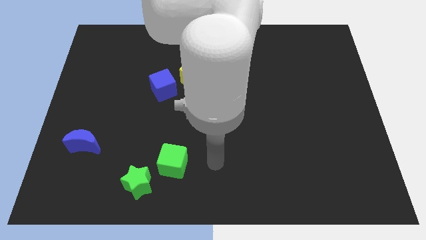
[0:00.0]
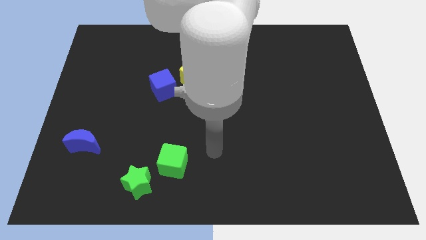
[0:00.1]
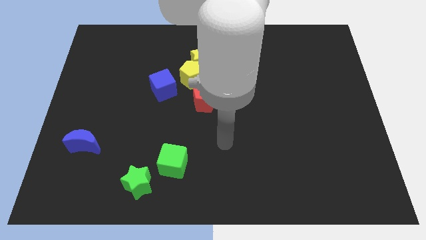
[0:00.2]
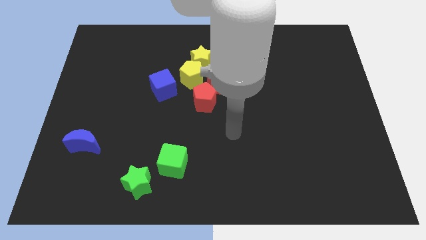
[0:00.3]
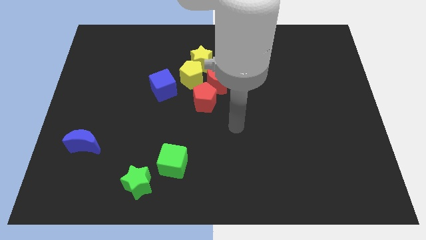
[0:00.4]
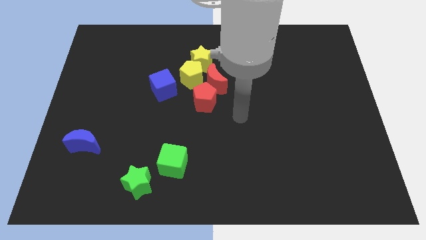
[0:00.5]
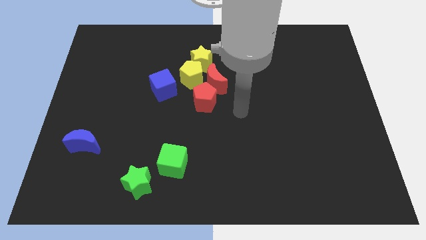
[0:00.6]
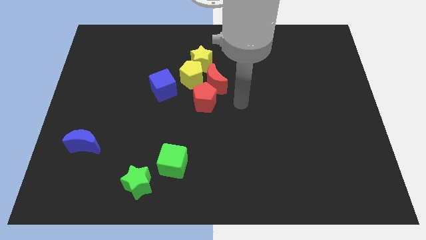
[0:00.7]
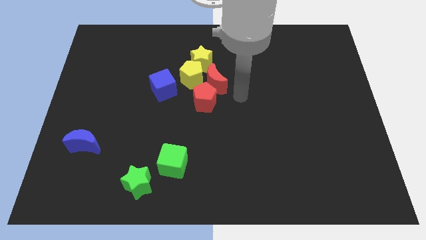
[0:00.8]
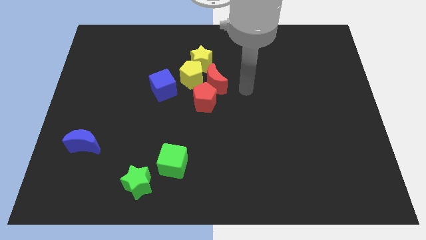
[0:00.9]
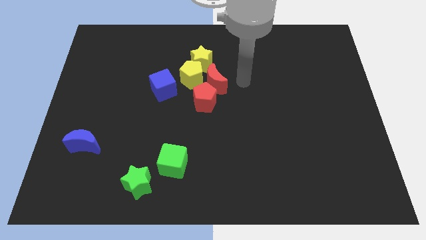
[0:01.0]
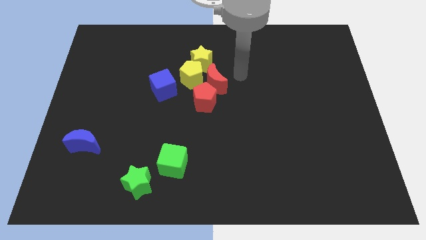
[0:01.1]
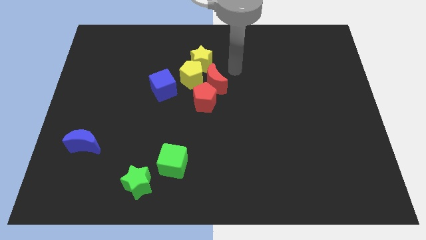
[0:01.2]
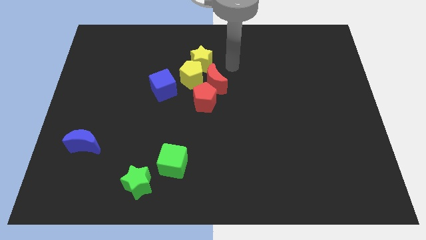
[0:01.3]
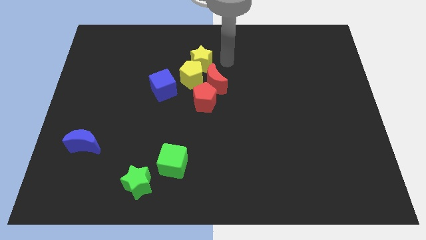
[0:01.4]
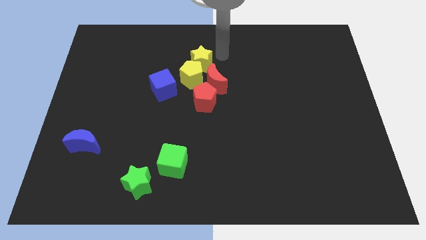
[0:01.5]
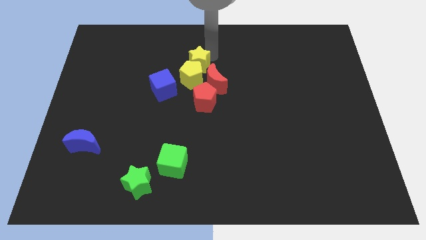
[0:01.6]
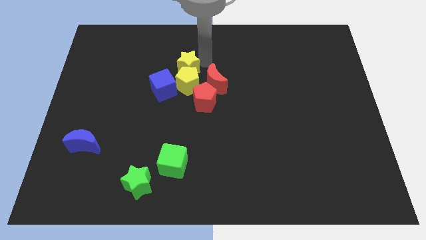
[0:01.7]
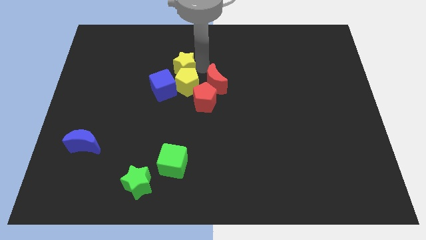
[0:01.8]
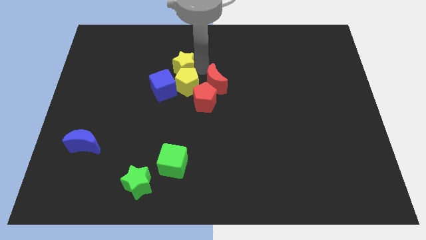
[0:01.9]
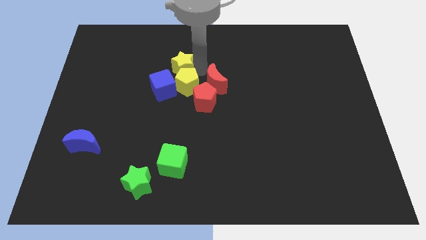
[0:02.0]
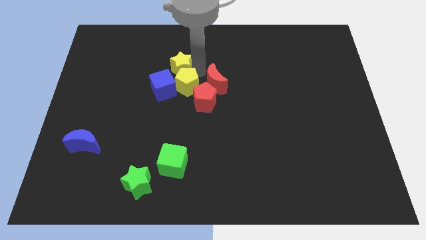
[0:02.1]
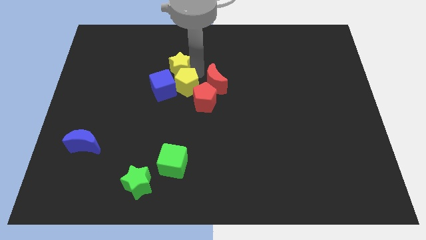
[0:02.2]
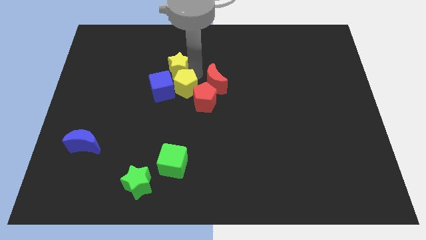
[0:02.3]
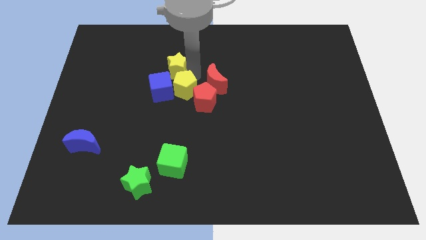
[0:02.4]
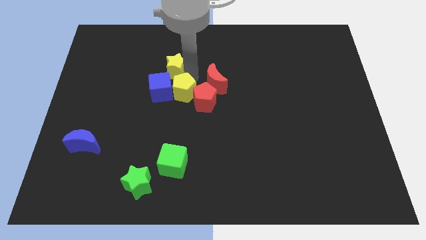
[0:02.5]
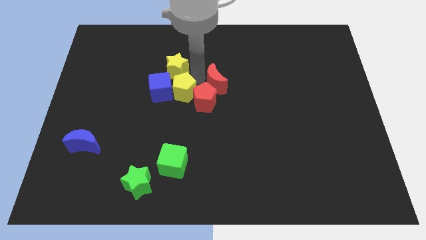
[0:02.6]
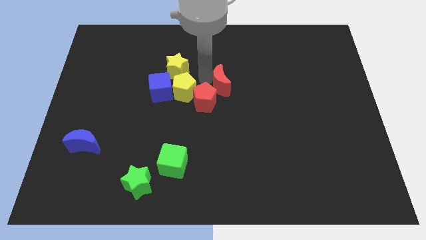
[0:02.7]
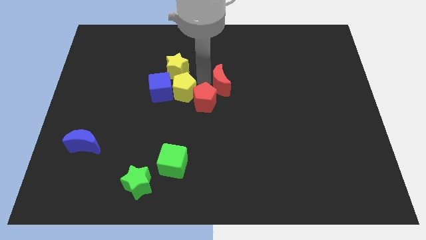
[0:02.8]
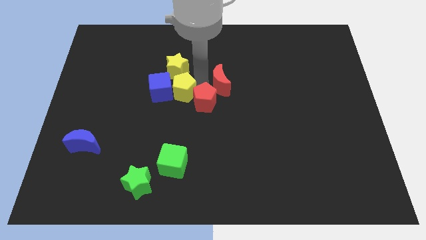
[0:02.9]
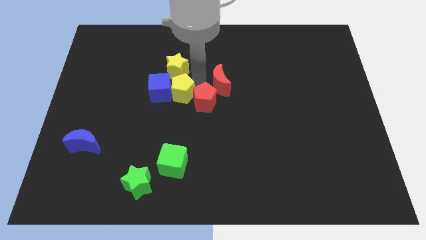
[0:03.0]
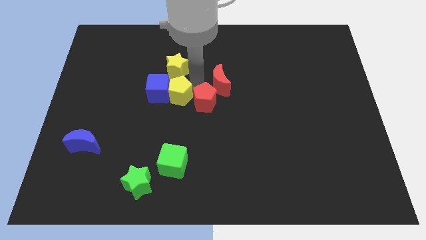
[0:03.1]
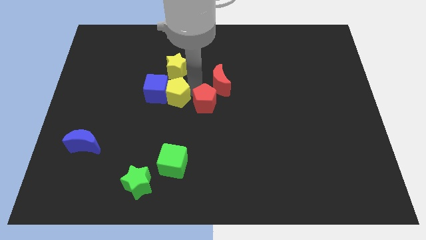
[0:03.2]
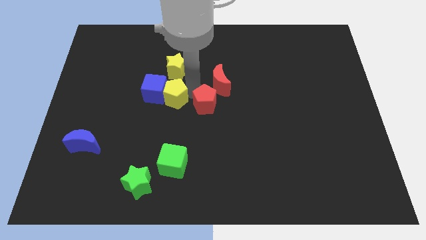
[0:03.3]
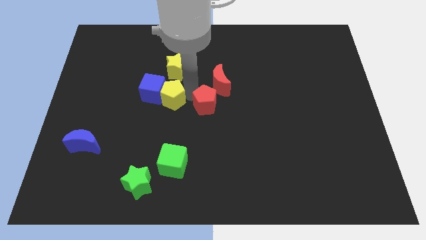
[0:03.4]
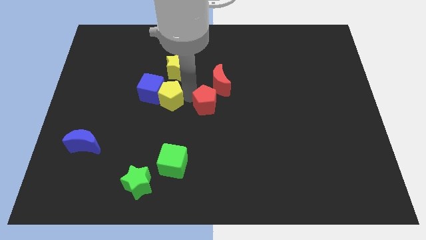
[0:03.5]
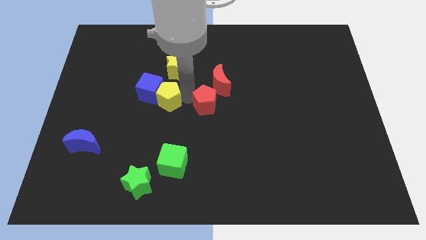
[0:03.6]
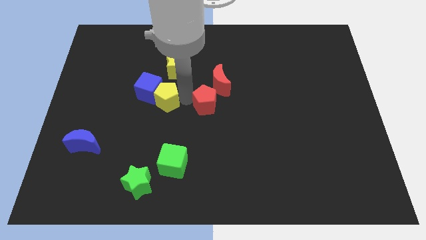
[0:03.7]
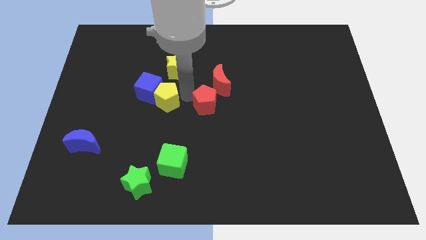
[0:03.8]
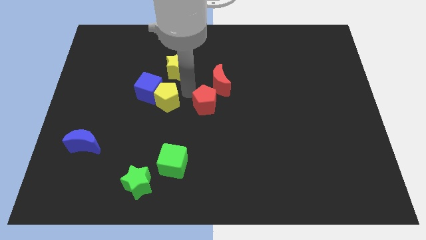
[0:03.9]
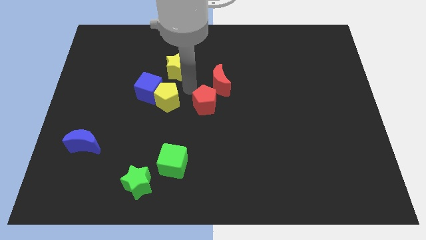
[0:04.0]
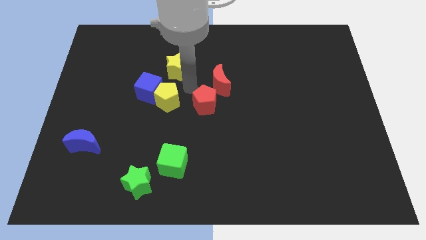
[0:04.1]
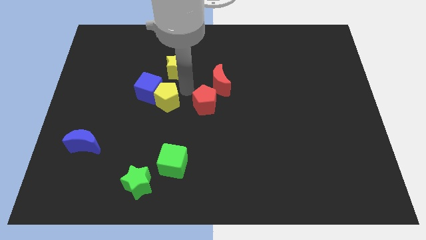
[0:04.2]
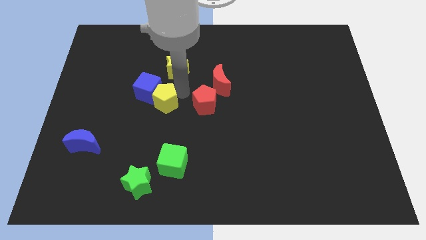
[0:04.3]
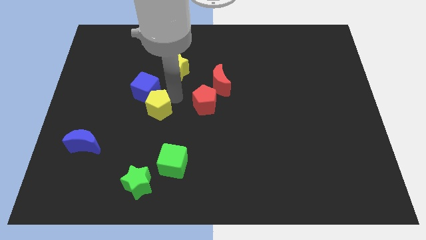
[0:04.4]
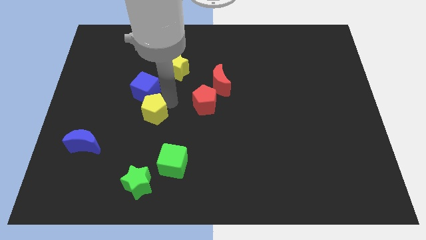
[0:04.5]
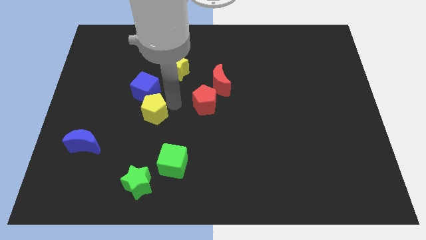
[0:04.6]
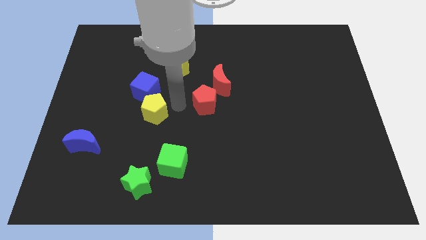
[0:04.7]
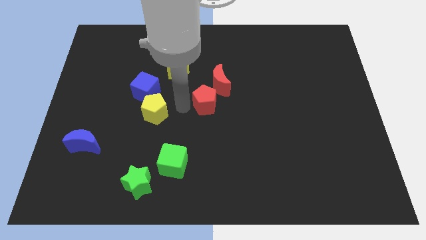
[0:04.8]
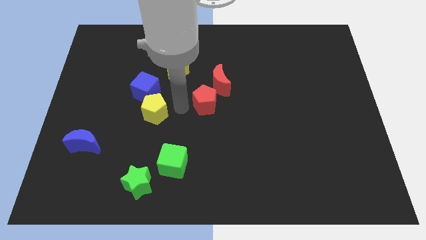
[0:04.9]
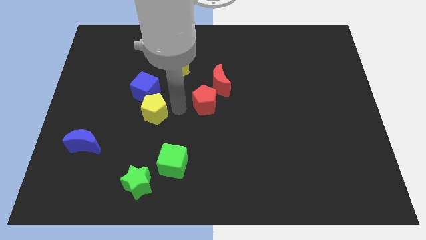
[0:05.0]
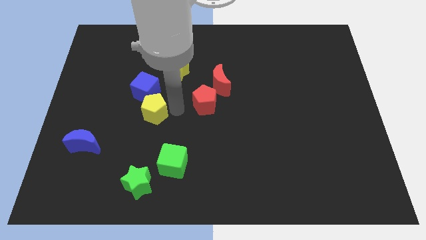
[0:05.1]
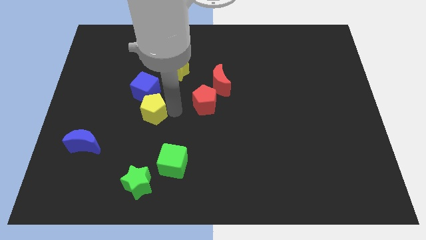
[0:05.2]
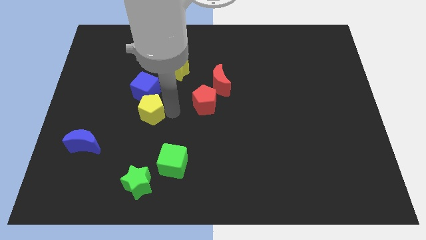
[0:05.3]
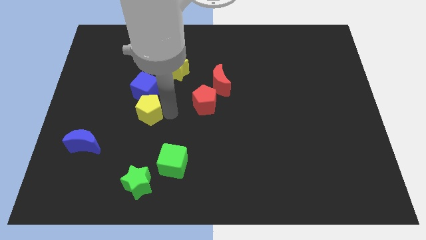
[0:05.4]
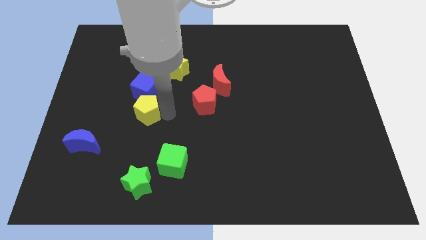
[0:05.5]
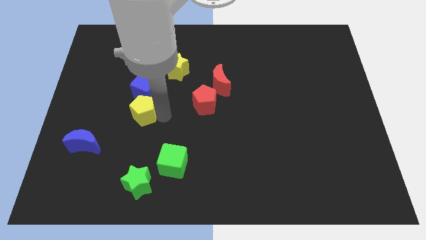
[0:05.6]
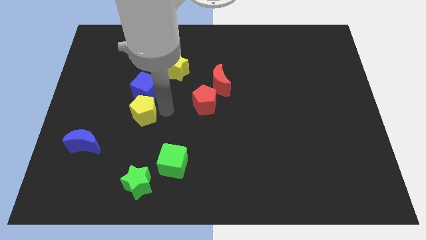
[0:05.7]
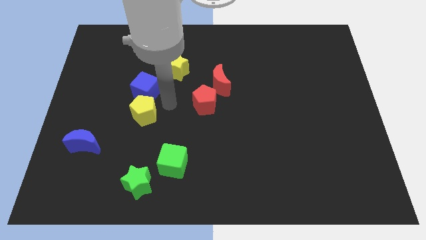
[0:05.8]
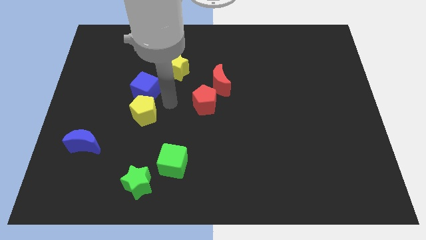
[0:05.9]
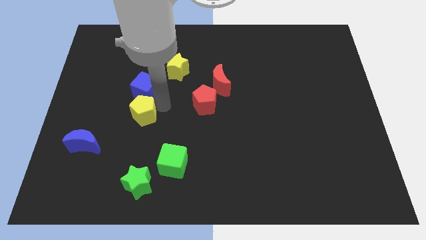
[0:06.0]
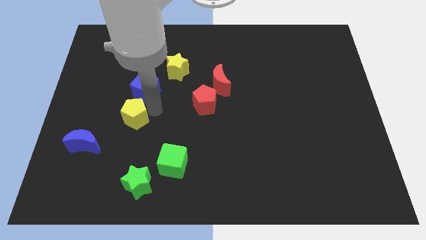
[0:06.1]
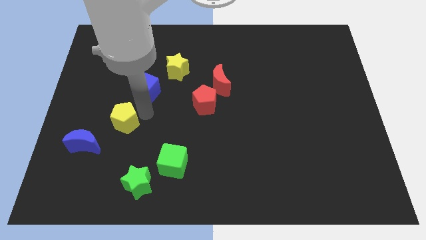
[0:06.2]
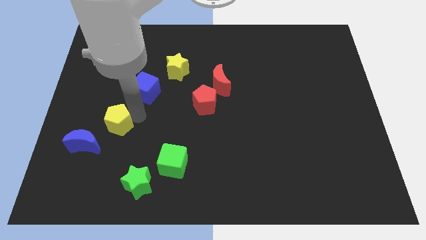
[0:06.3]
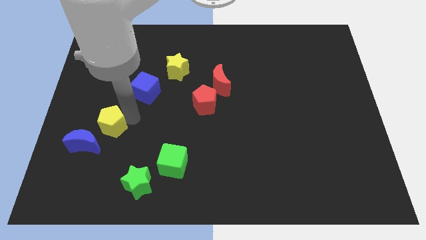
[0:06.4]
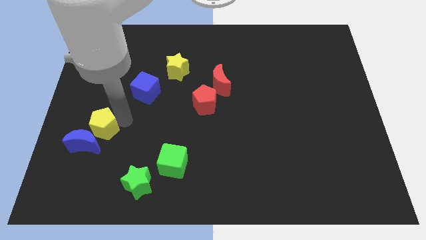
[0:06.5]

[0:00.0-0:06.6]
move the yellow pentagon to the blue moon

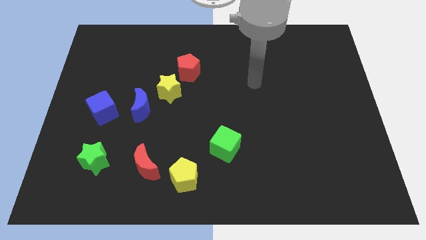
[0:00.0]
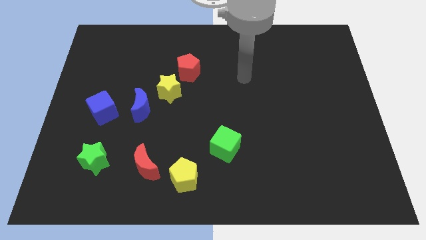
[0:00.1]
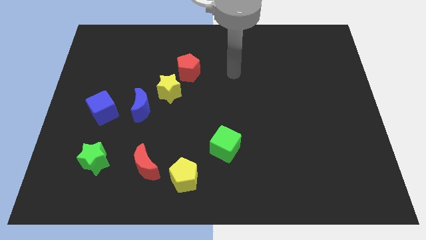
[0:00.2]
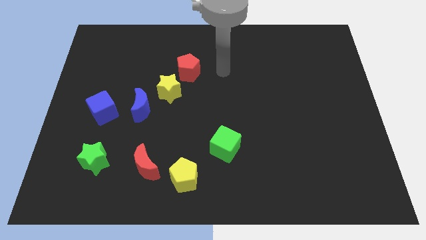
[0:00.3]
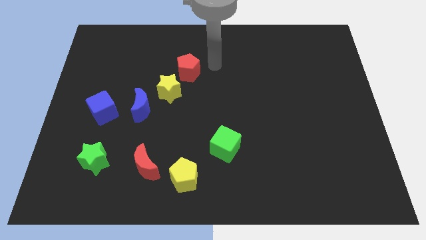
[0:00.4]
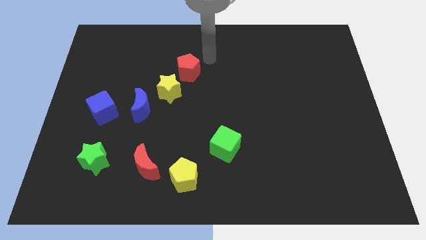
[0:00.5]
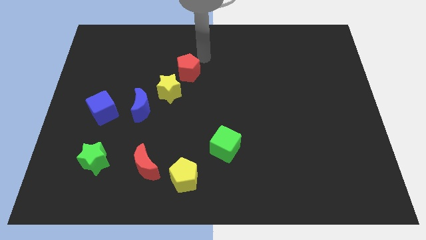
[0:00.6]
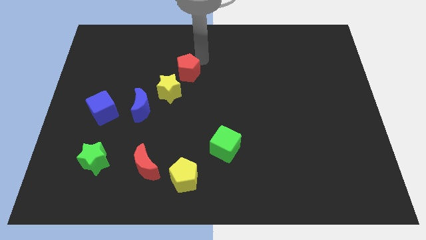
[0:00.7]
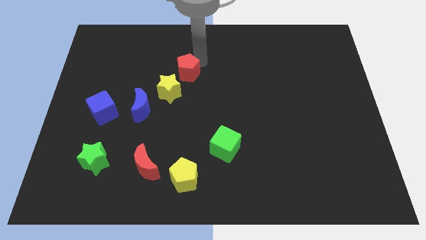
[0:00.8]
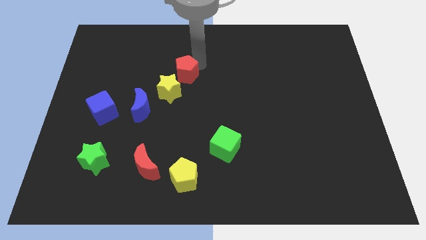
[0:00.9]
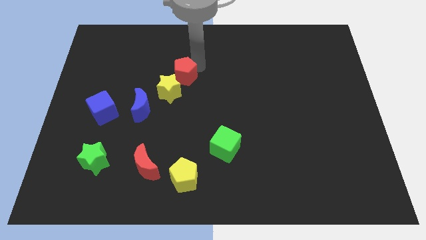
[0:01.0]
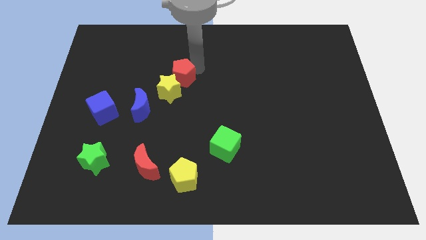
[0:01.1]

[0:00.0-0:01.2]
move the red pentagon next to the yellow star
